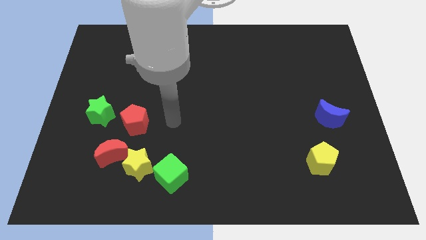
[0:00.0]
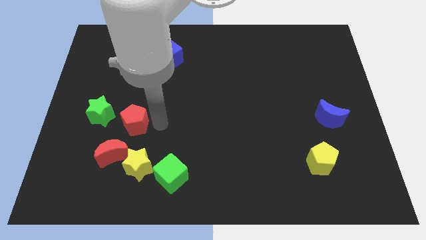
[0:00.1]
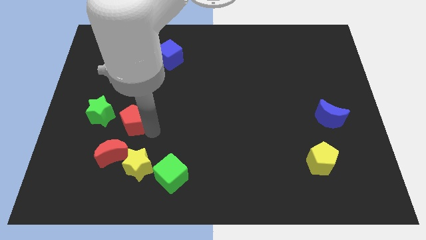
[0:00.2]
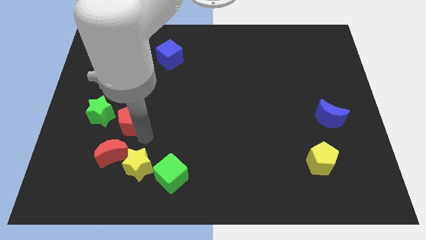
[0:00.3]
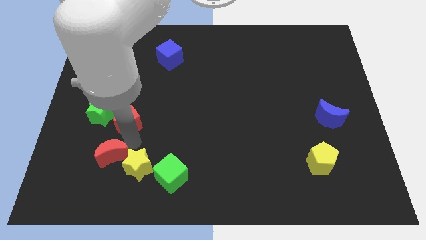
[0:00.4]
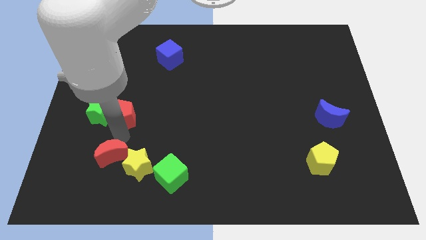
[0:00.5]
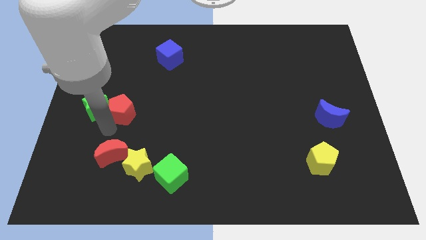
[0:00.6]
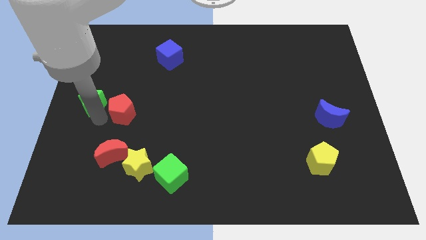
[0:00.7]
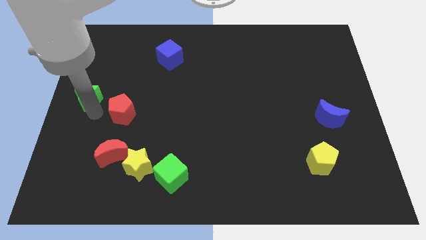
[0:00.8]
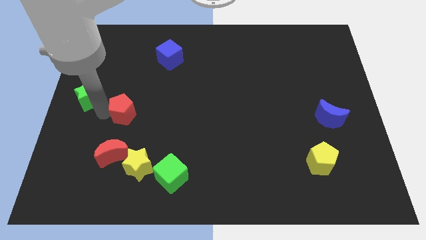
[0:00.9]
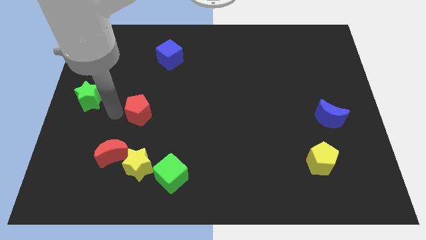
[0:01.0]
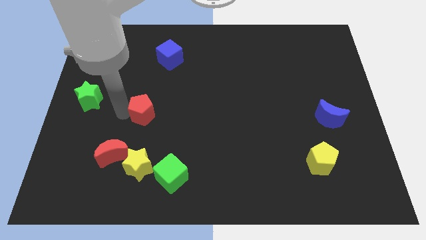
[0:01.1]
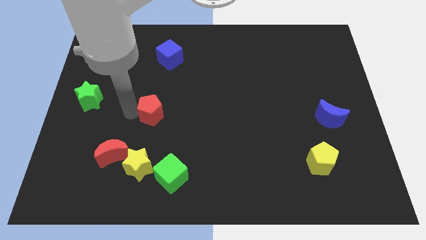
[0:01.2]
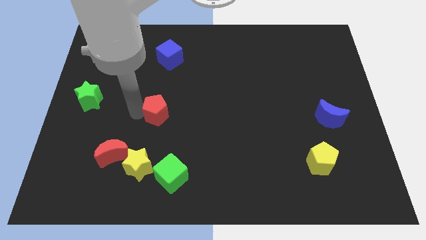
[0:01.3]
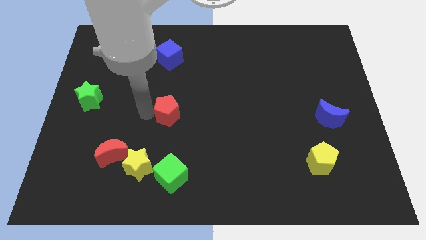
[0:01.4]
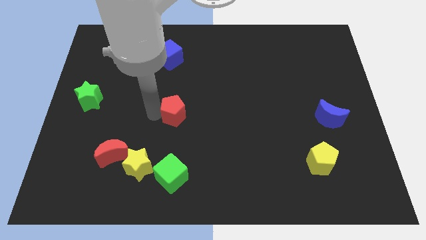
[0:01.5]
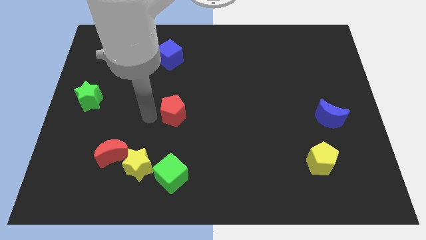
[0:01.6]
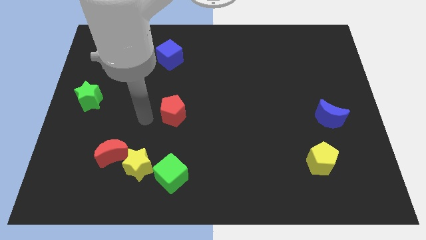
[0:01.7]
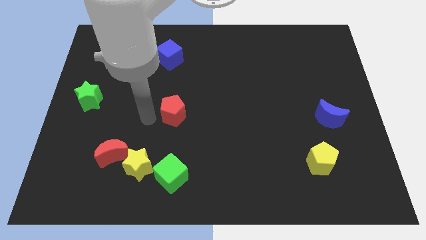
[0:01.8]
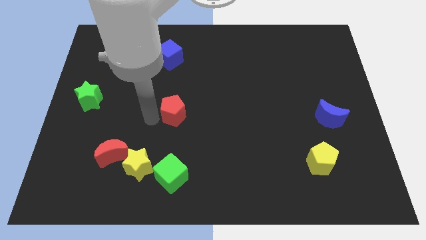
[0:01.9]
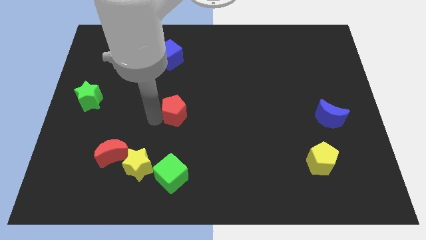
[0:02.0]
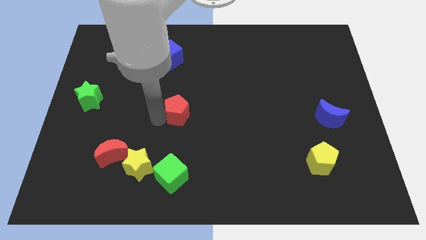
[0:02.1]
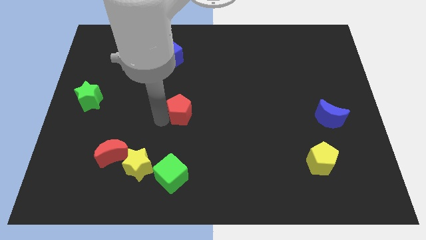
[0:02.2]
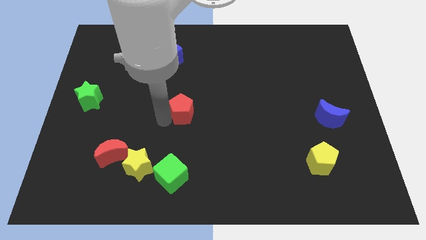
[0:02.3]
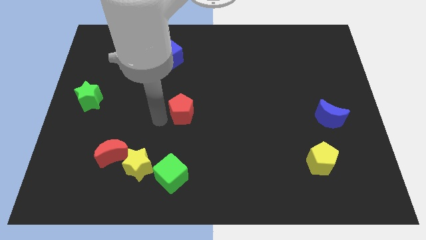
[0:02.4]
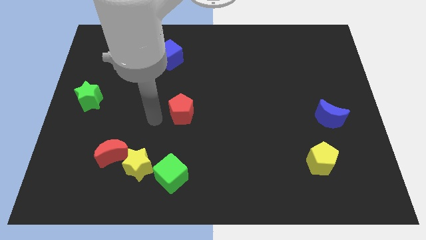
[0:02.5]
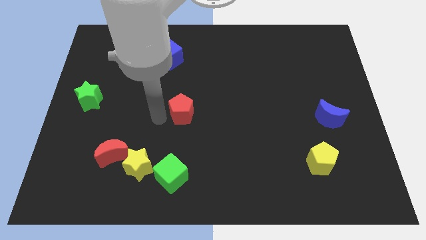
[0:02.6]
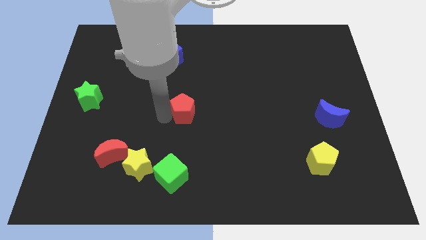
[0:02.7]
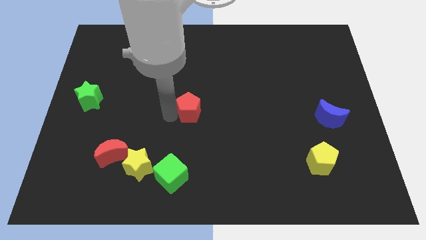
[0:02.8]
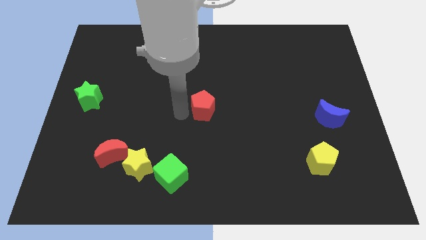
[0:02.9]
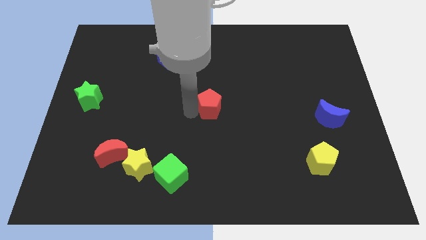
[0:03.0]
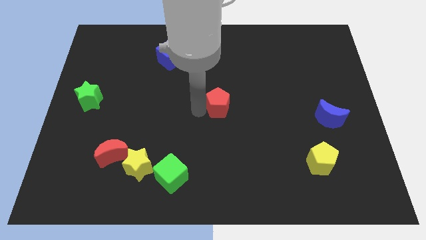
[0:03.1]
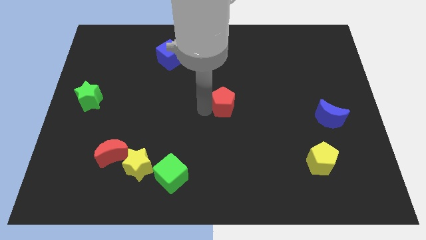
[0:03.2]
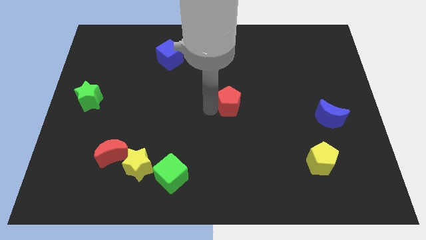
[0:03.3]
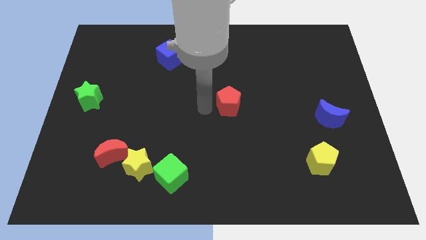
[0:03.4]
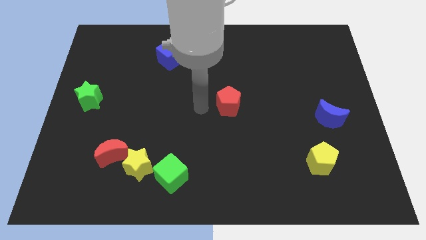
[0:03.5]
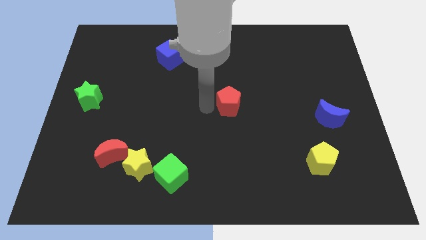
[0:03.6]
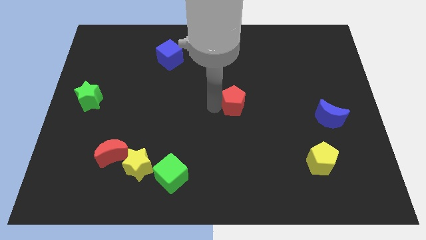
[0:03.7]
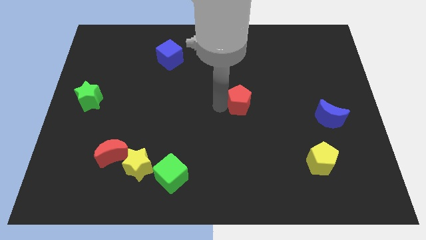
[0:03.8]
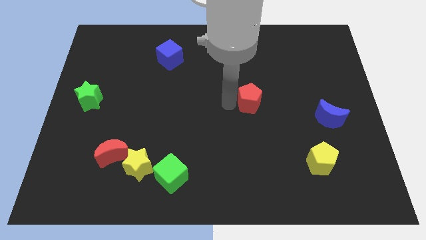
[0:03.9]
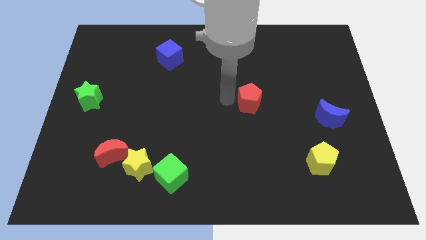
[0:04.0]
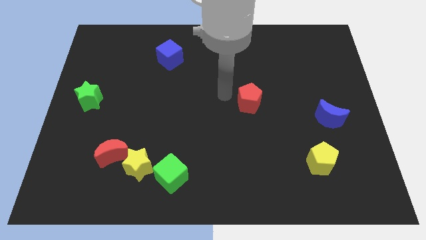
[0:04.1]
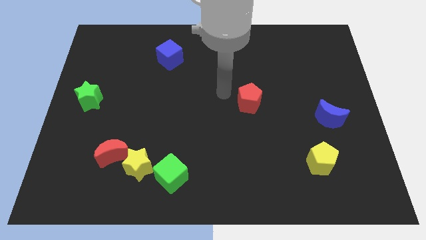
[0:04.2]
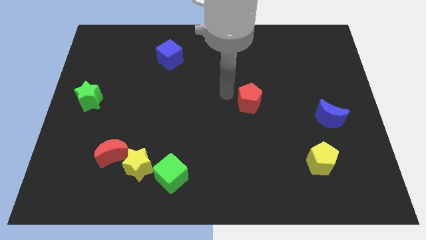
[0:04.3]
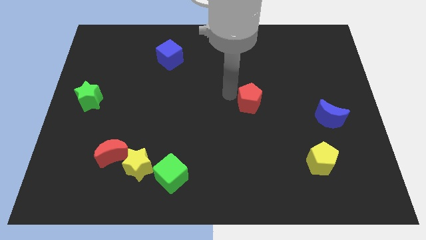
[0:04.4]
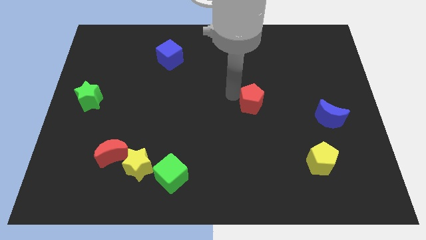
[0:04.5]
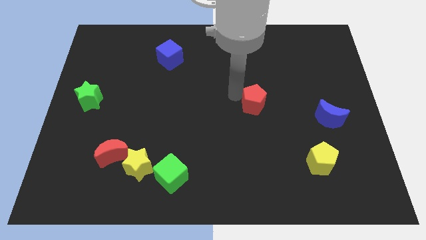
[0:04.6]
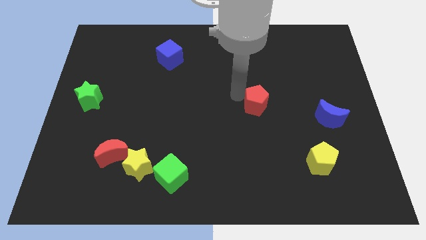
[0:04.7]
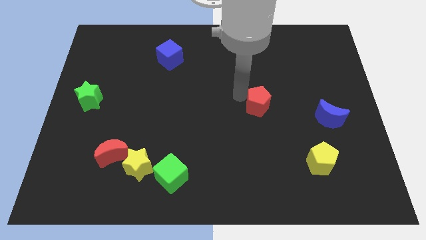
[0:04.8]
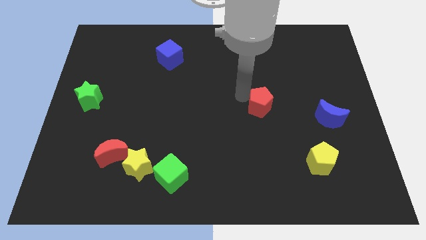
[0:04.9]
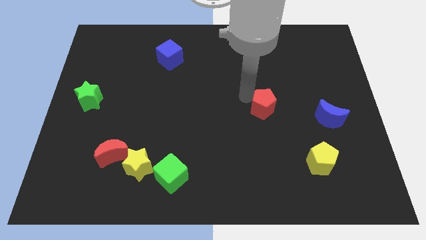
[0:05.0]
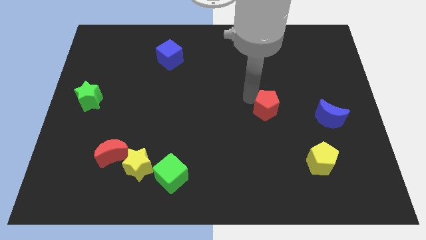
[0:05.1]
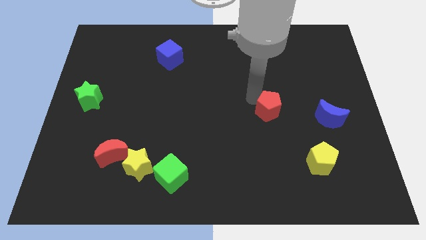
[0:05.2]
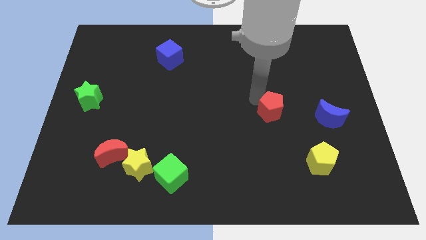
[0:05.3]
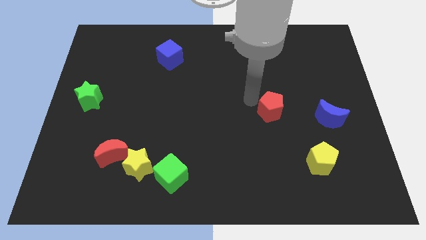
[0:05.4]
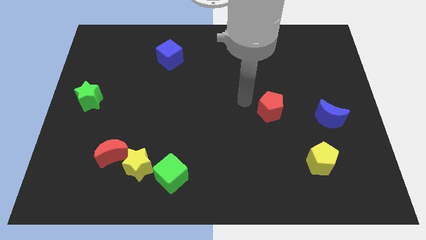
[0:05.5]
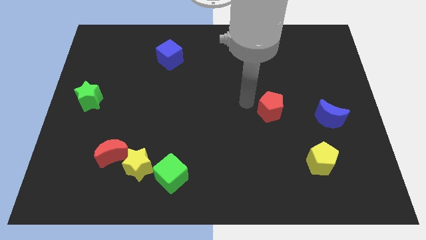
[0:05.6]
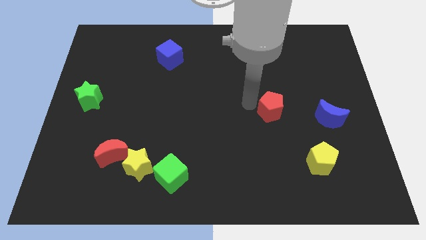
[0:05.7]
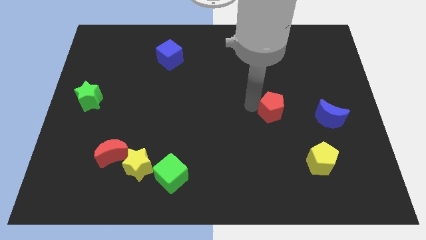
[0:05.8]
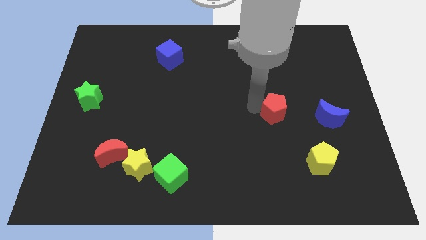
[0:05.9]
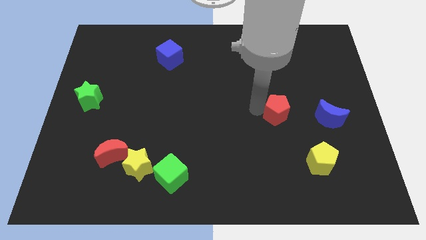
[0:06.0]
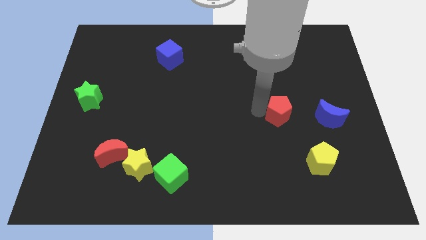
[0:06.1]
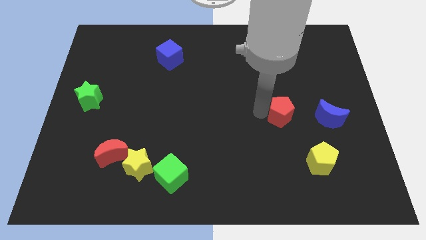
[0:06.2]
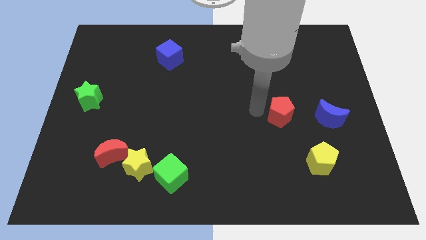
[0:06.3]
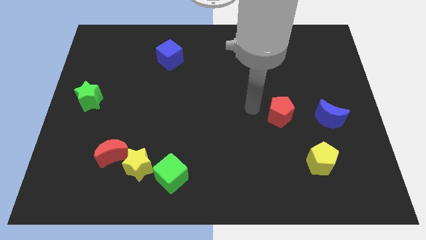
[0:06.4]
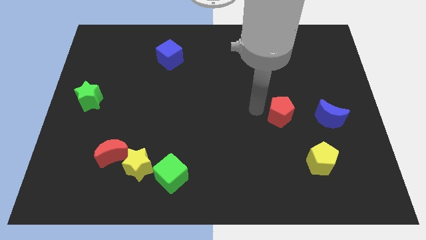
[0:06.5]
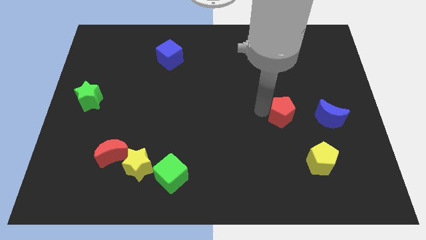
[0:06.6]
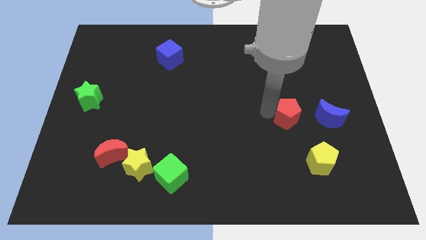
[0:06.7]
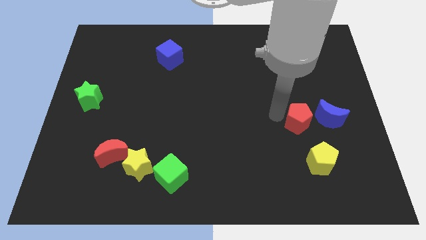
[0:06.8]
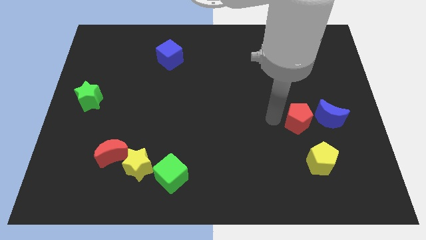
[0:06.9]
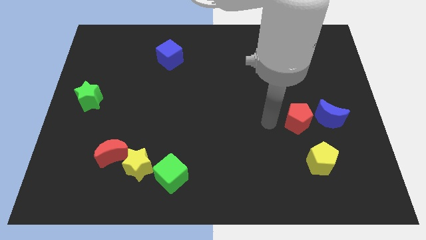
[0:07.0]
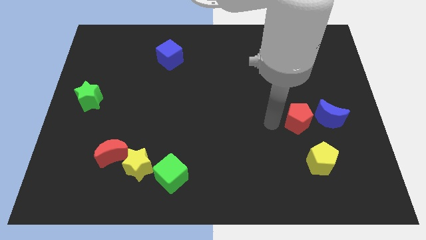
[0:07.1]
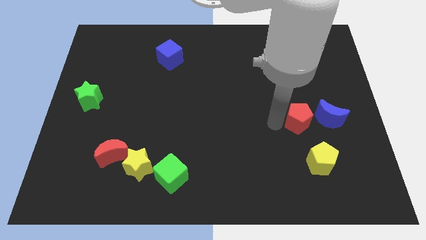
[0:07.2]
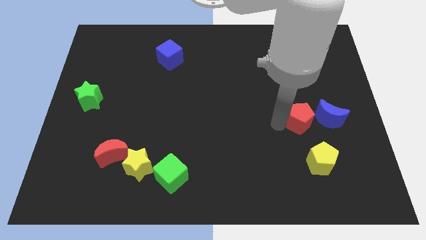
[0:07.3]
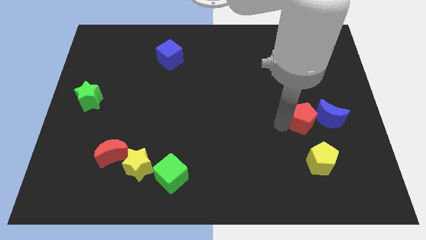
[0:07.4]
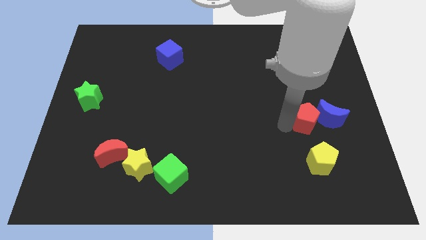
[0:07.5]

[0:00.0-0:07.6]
slide the red pentagon close to the blue moon
